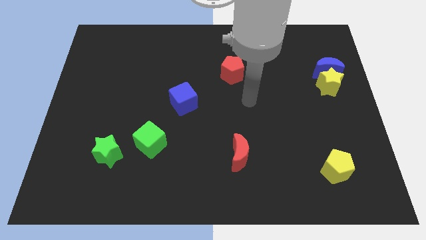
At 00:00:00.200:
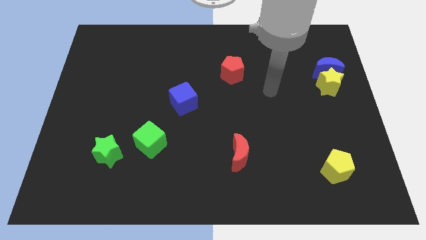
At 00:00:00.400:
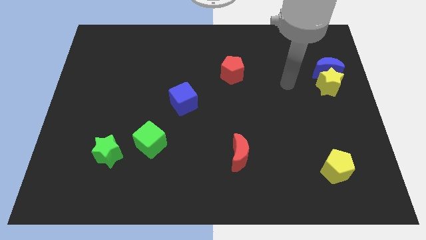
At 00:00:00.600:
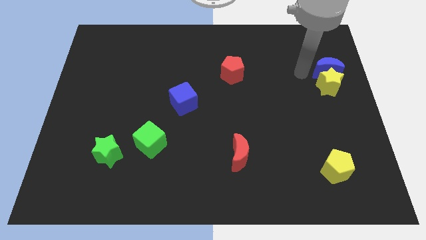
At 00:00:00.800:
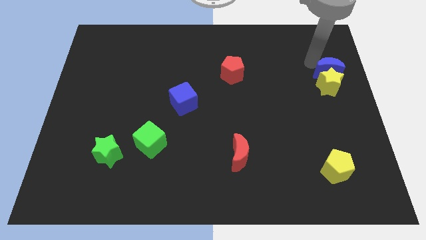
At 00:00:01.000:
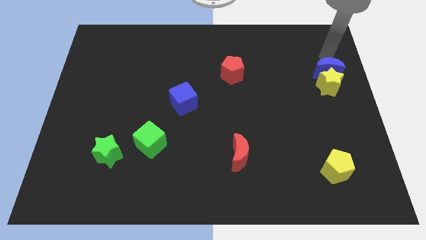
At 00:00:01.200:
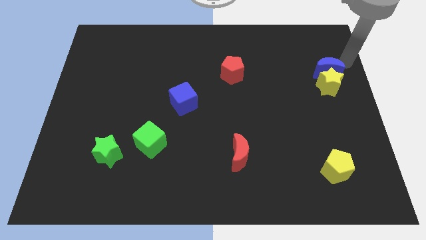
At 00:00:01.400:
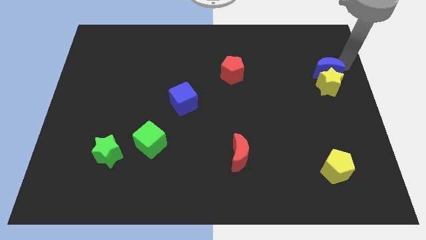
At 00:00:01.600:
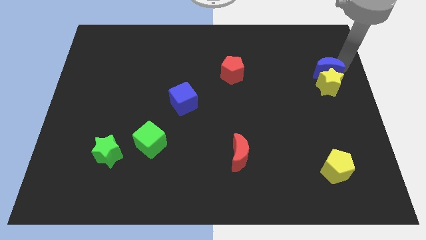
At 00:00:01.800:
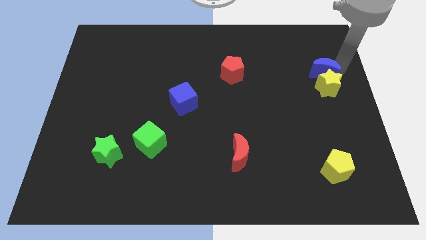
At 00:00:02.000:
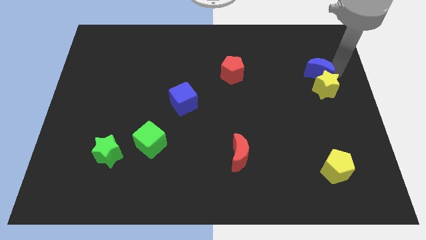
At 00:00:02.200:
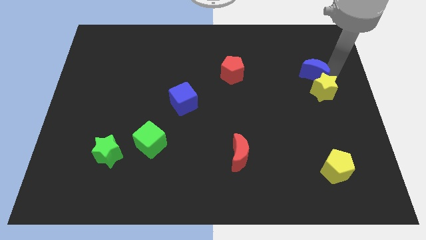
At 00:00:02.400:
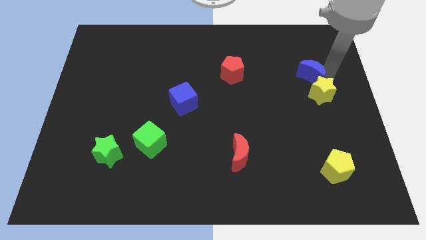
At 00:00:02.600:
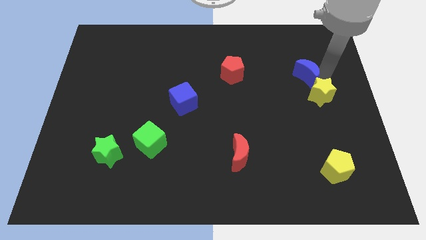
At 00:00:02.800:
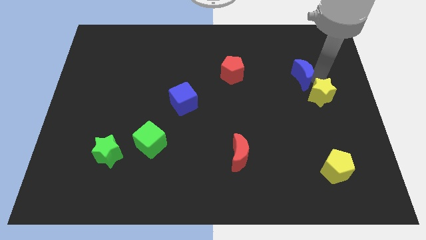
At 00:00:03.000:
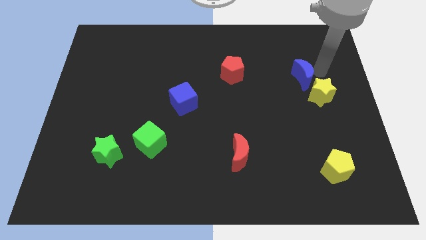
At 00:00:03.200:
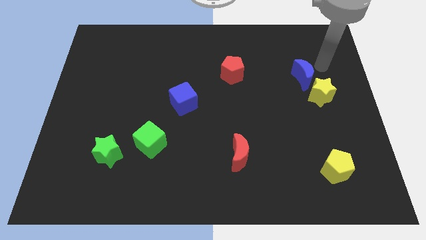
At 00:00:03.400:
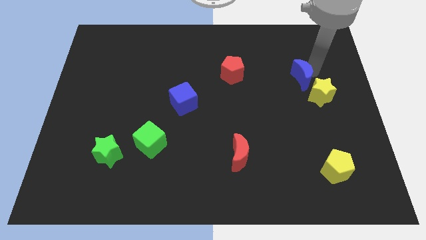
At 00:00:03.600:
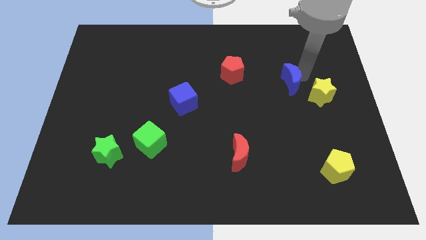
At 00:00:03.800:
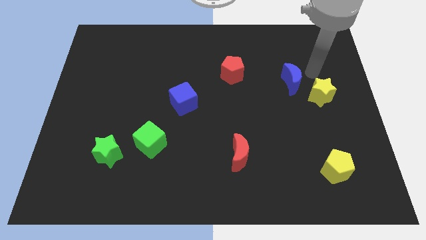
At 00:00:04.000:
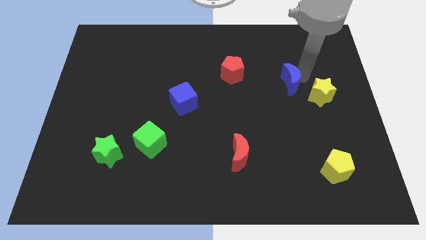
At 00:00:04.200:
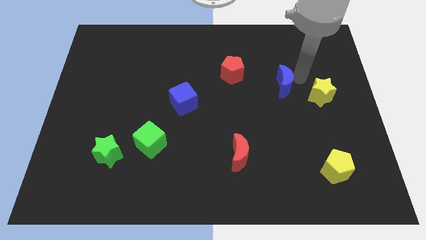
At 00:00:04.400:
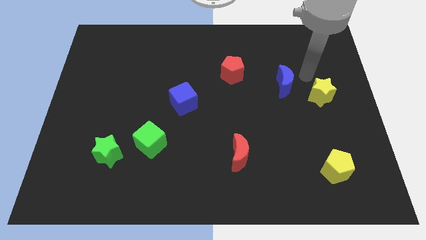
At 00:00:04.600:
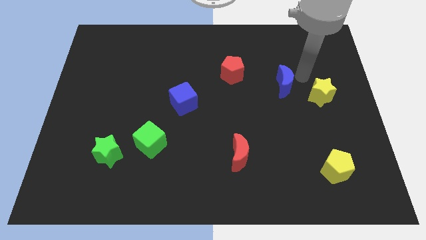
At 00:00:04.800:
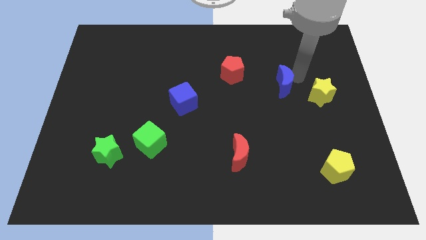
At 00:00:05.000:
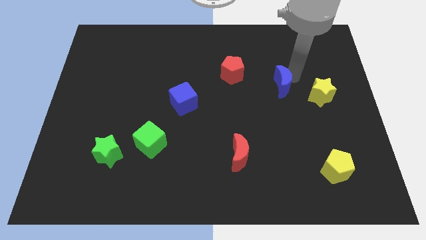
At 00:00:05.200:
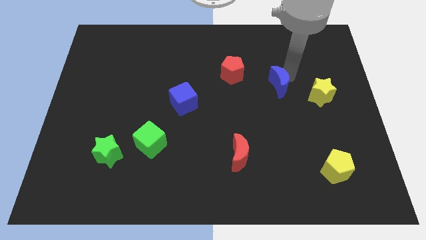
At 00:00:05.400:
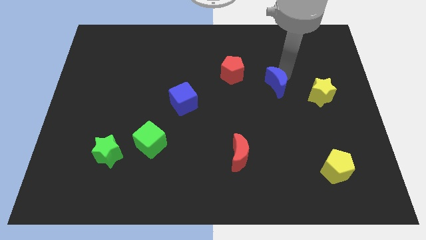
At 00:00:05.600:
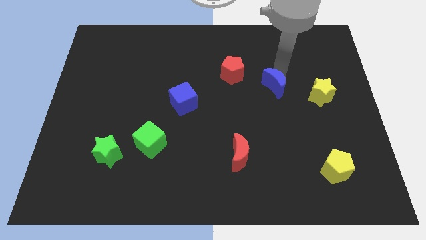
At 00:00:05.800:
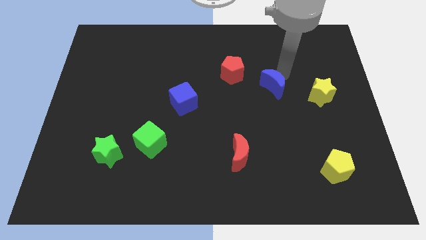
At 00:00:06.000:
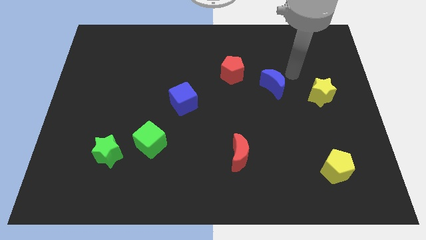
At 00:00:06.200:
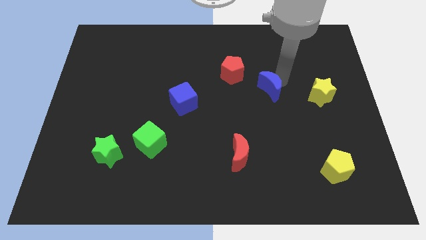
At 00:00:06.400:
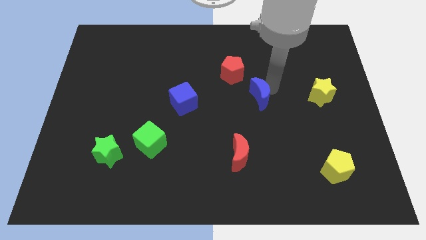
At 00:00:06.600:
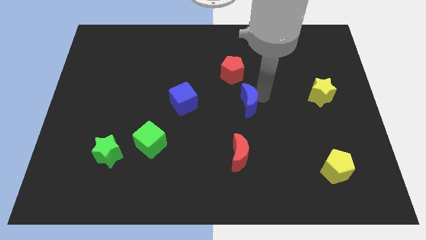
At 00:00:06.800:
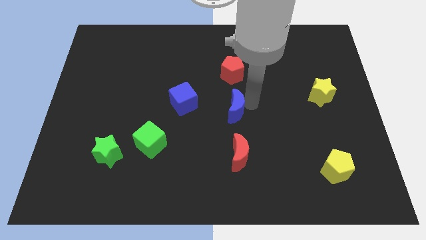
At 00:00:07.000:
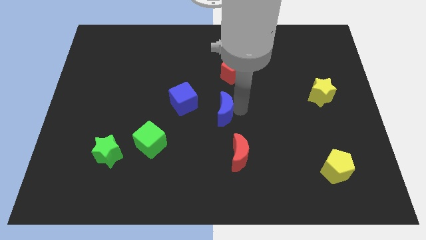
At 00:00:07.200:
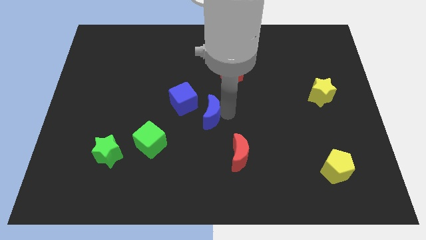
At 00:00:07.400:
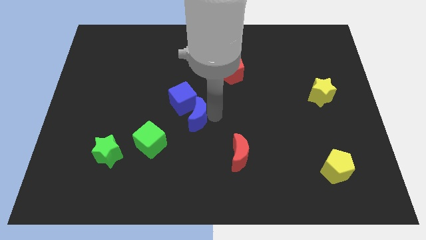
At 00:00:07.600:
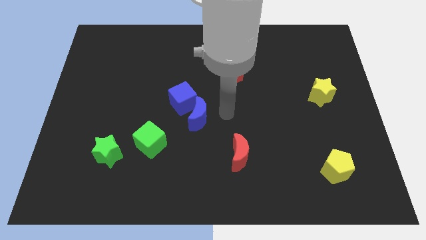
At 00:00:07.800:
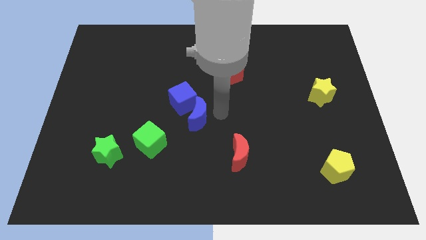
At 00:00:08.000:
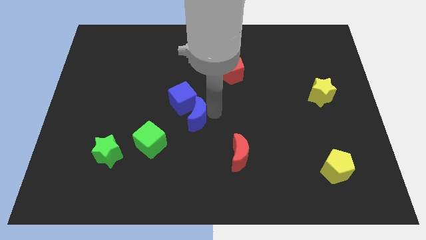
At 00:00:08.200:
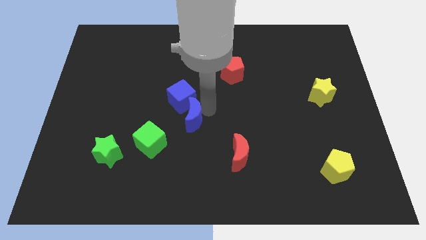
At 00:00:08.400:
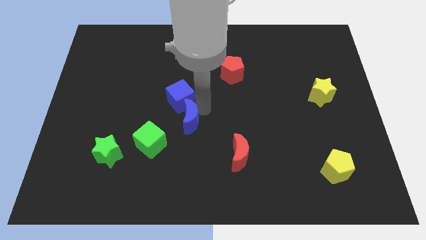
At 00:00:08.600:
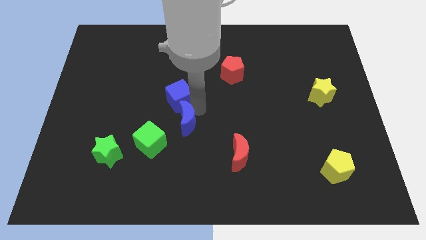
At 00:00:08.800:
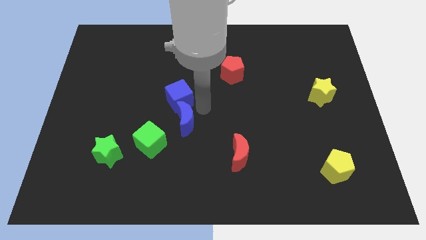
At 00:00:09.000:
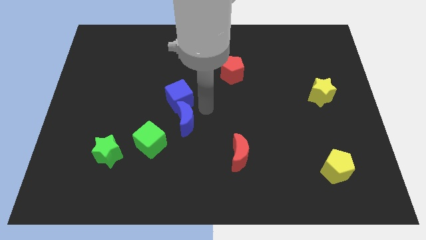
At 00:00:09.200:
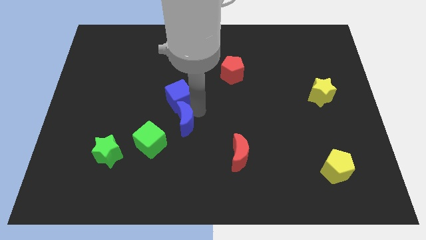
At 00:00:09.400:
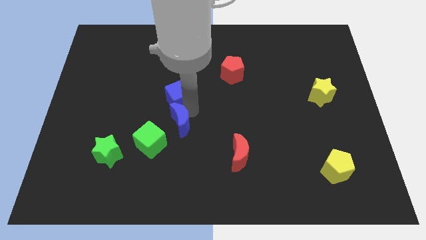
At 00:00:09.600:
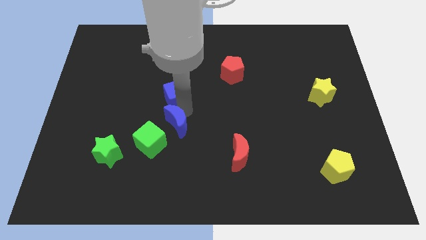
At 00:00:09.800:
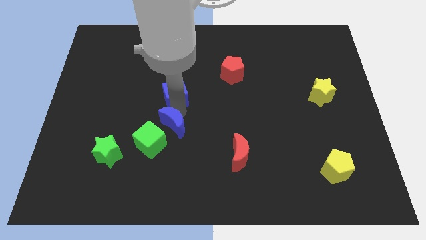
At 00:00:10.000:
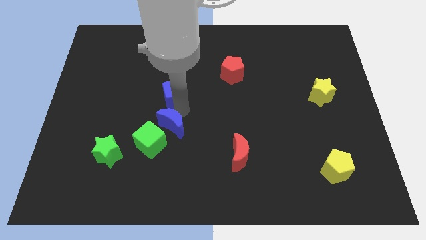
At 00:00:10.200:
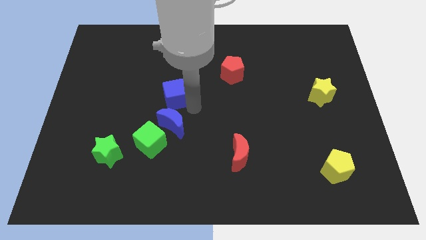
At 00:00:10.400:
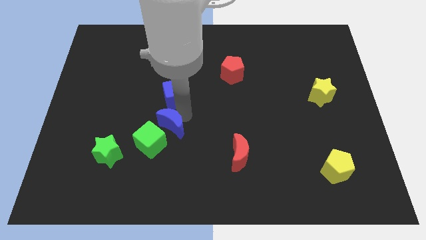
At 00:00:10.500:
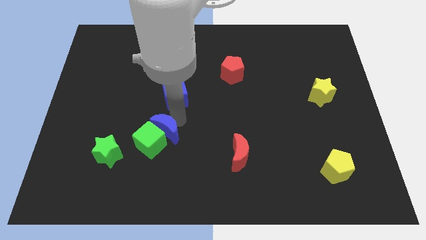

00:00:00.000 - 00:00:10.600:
slide the blue moon close to the green cube

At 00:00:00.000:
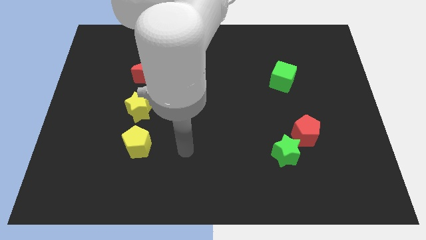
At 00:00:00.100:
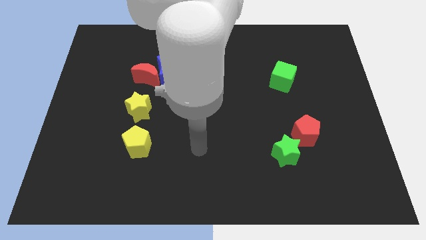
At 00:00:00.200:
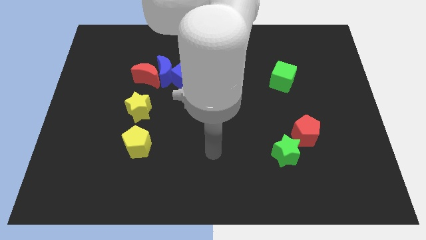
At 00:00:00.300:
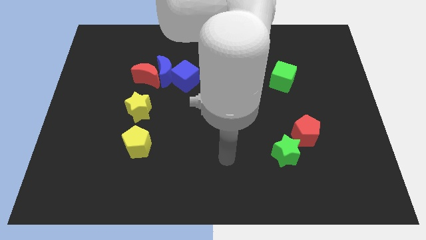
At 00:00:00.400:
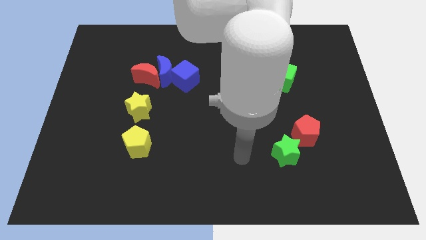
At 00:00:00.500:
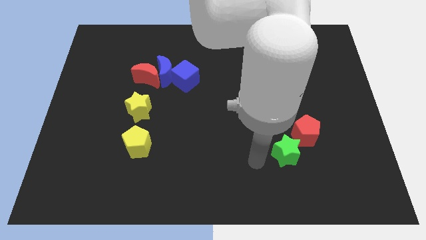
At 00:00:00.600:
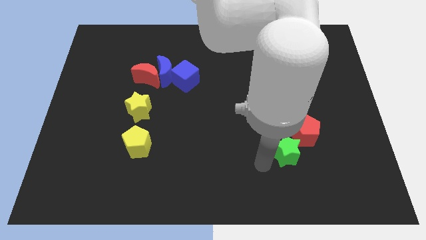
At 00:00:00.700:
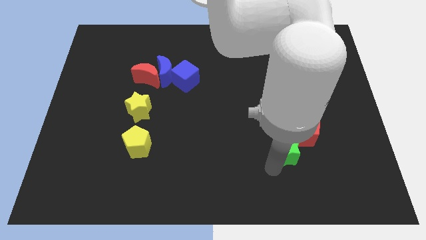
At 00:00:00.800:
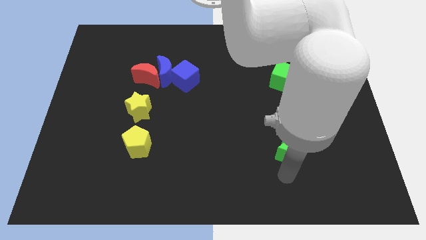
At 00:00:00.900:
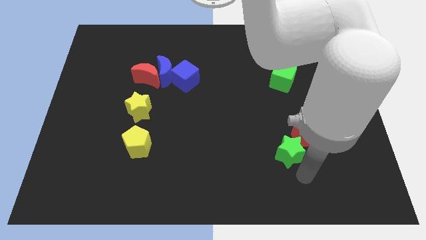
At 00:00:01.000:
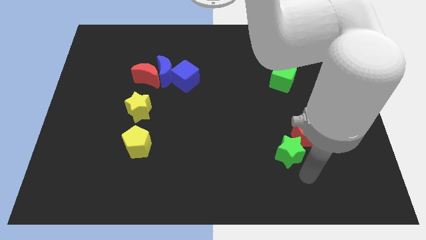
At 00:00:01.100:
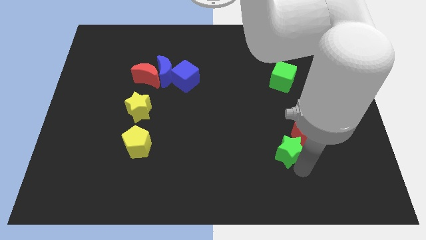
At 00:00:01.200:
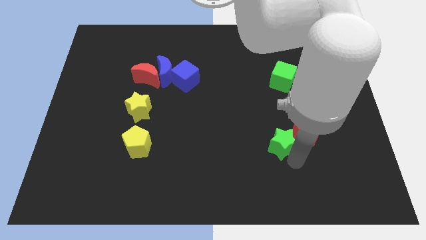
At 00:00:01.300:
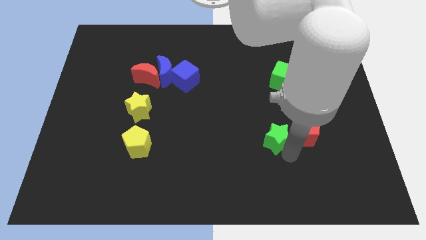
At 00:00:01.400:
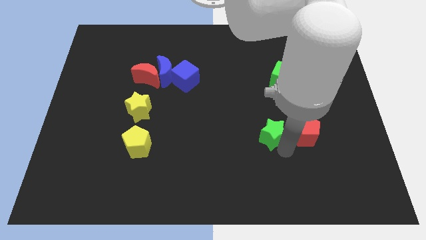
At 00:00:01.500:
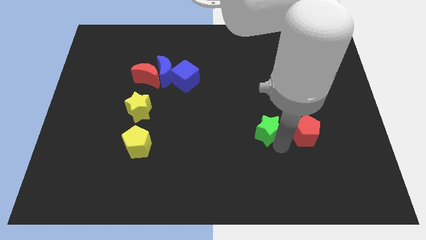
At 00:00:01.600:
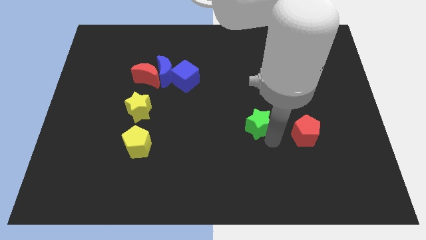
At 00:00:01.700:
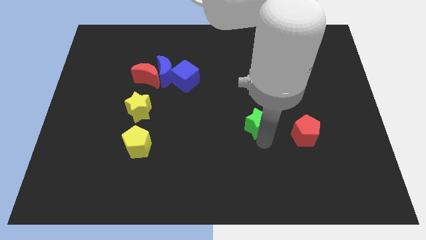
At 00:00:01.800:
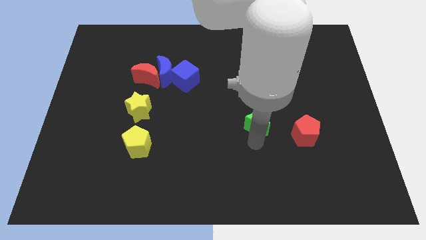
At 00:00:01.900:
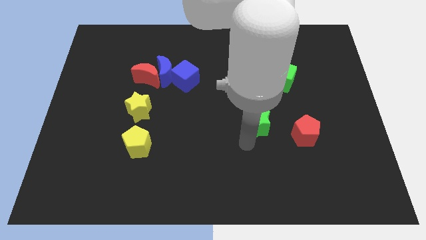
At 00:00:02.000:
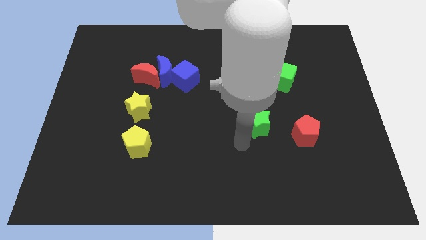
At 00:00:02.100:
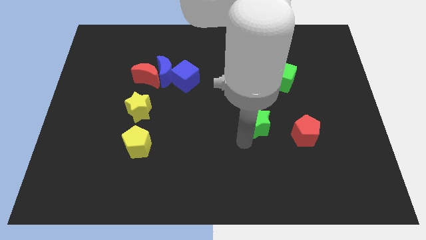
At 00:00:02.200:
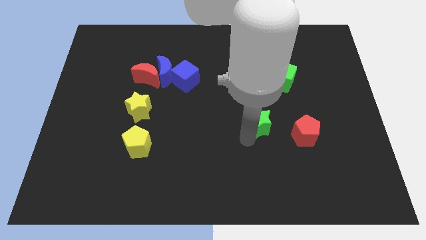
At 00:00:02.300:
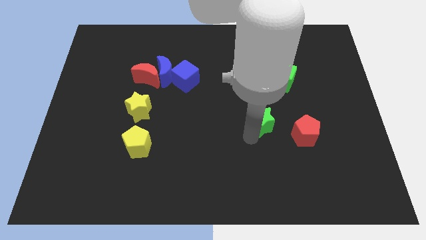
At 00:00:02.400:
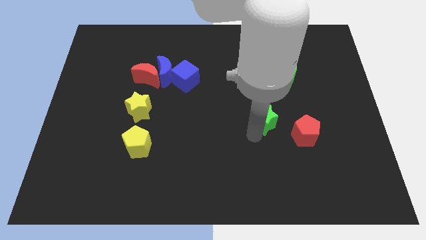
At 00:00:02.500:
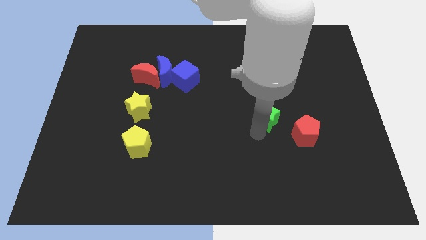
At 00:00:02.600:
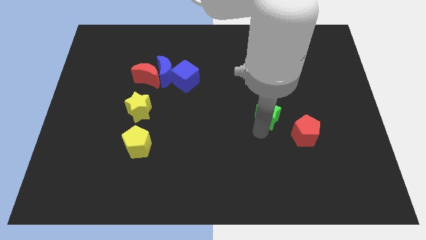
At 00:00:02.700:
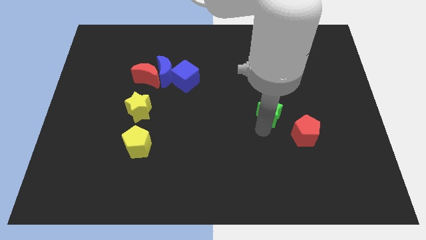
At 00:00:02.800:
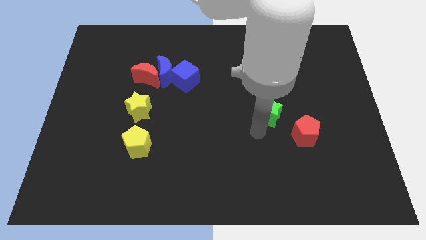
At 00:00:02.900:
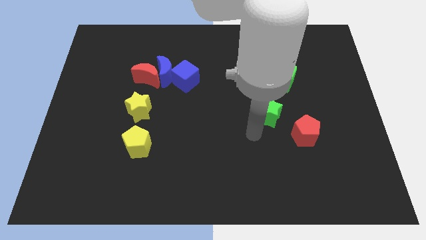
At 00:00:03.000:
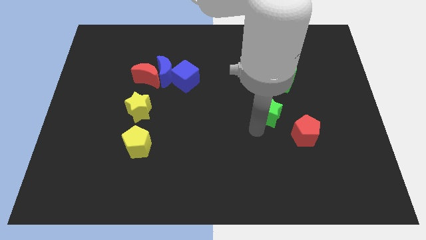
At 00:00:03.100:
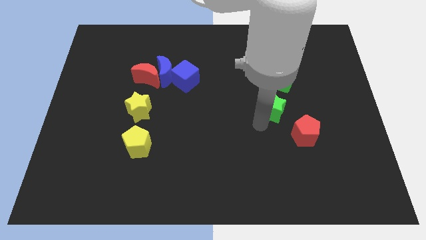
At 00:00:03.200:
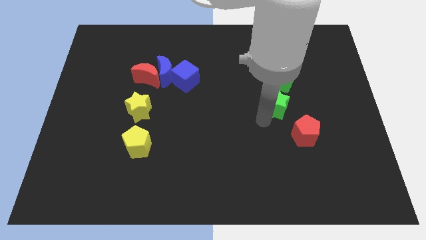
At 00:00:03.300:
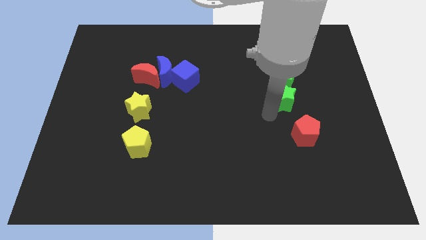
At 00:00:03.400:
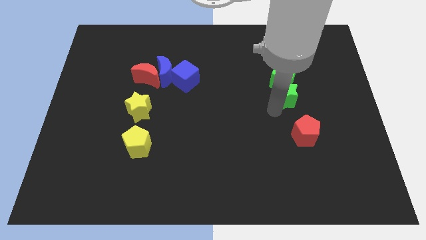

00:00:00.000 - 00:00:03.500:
slide the green star next to the green cube
